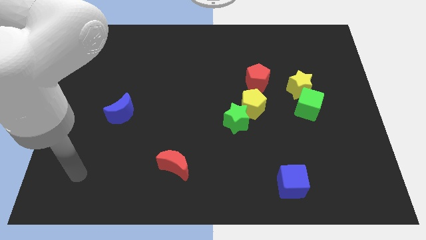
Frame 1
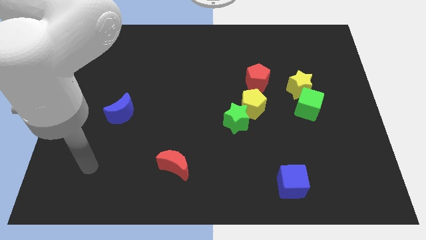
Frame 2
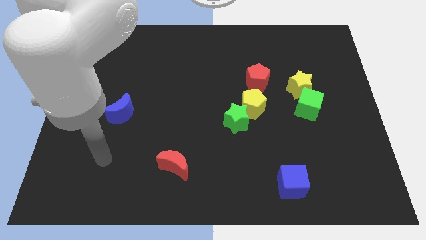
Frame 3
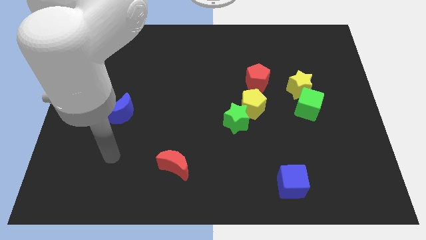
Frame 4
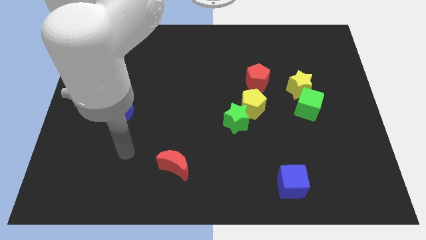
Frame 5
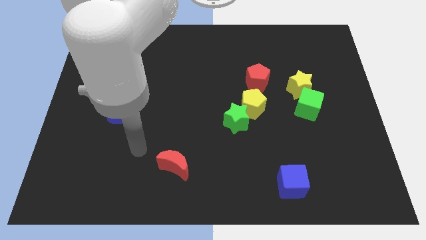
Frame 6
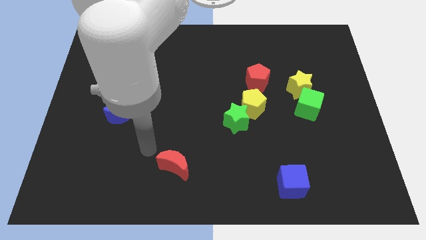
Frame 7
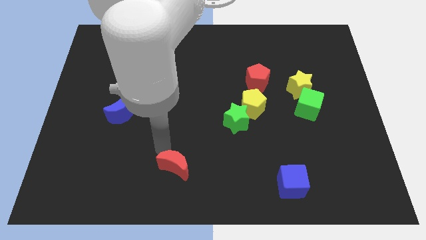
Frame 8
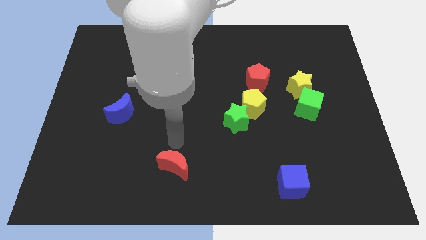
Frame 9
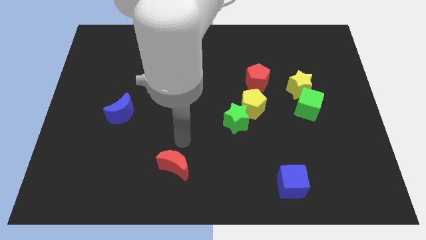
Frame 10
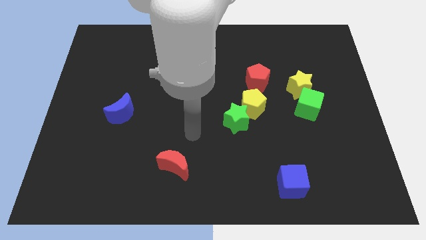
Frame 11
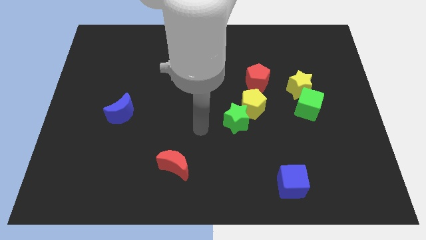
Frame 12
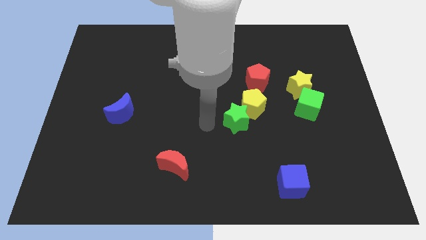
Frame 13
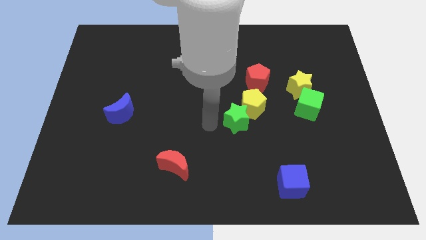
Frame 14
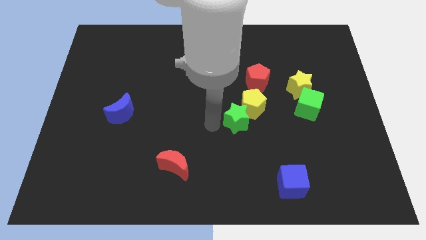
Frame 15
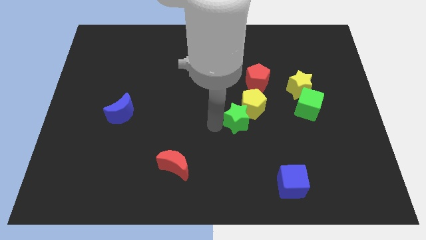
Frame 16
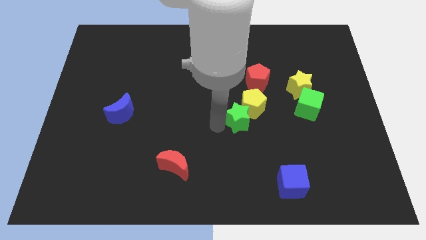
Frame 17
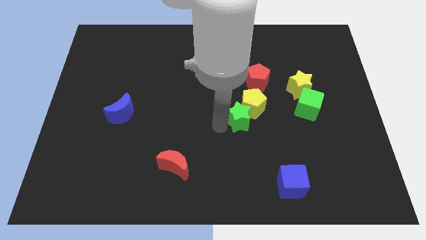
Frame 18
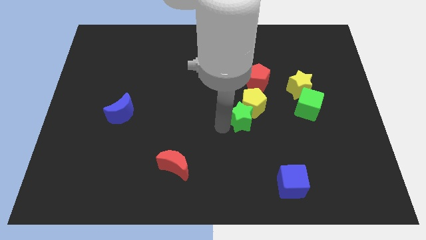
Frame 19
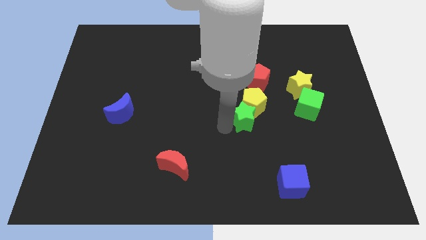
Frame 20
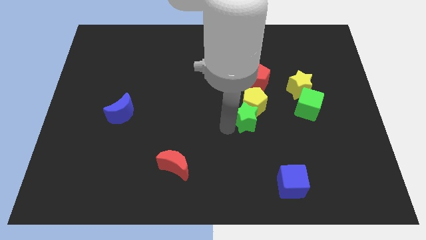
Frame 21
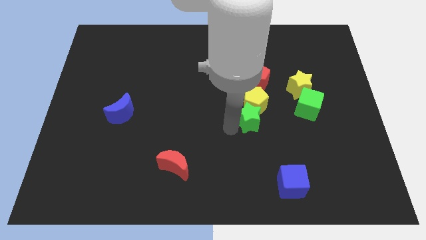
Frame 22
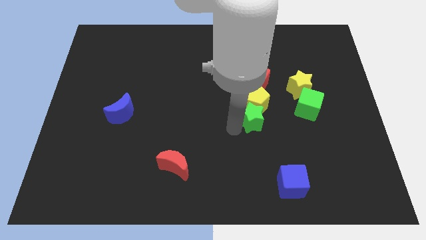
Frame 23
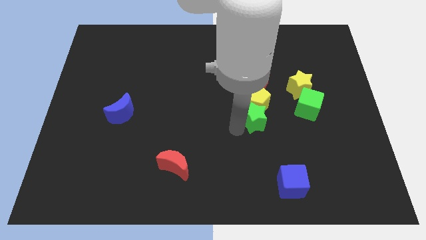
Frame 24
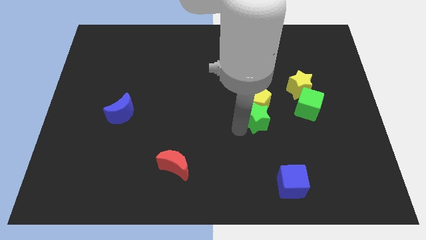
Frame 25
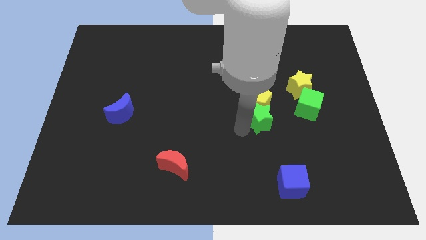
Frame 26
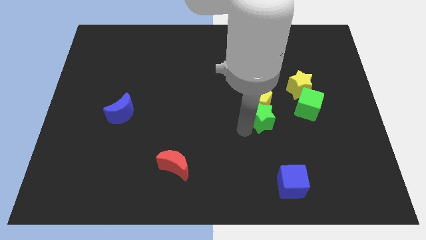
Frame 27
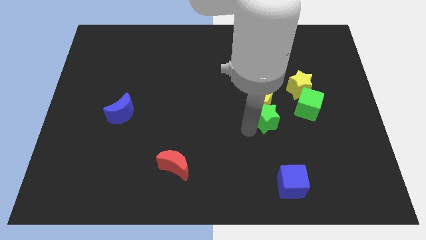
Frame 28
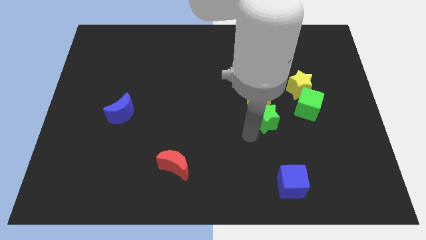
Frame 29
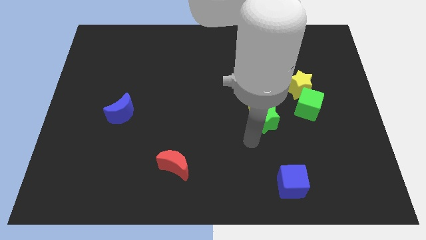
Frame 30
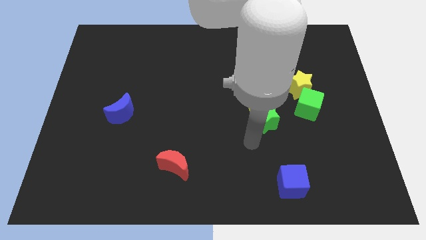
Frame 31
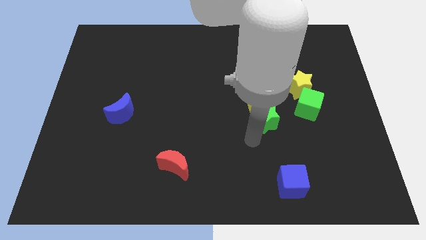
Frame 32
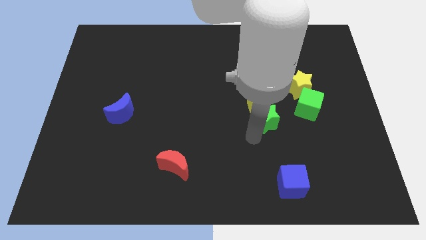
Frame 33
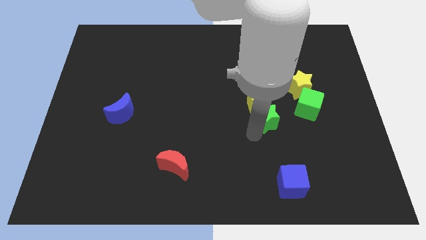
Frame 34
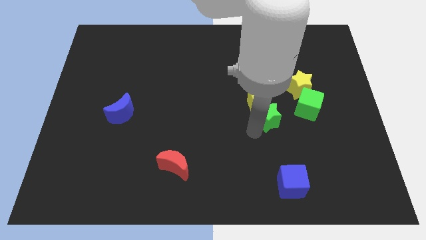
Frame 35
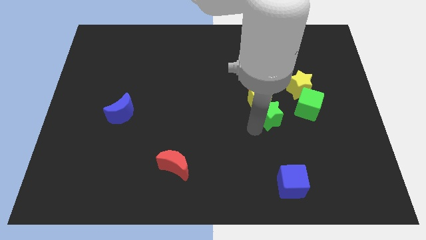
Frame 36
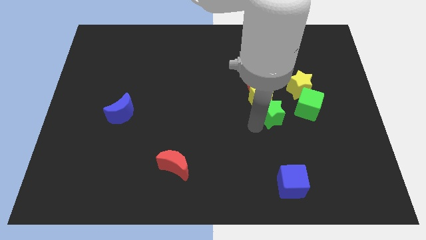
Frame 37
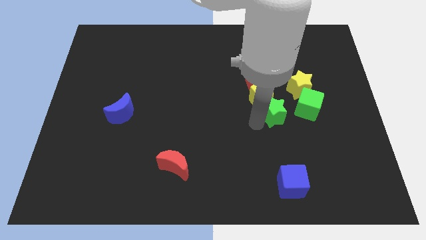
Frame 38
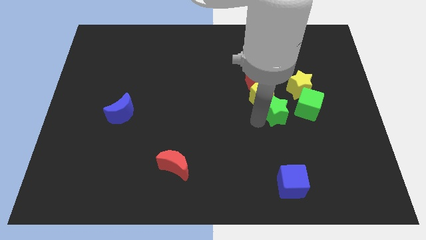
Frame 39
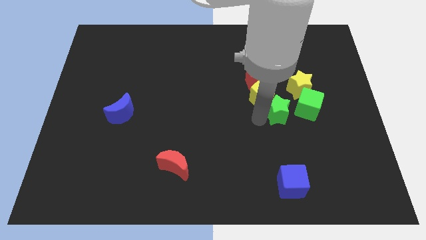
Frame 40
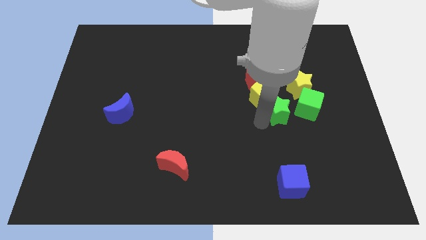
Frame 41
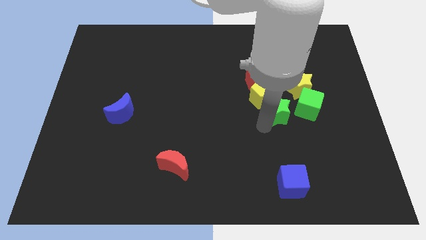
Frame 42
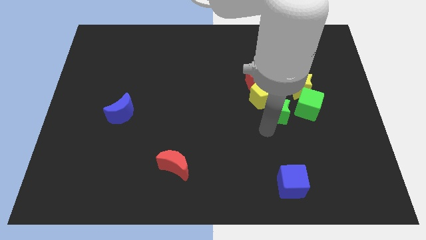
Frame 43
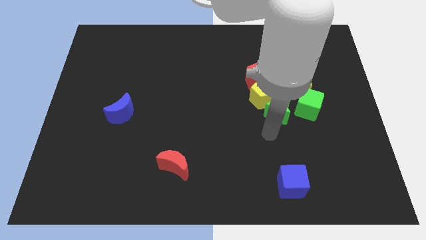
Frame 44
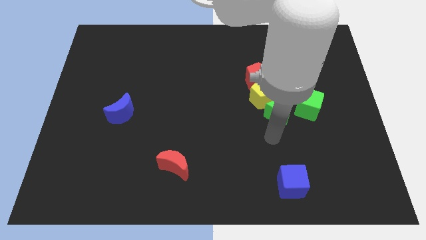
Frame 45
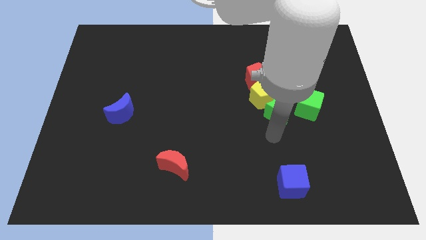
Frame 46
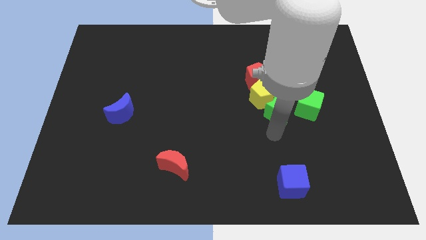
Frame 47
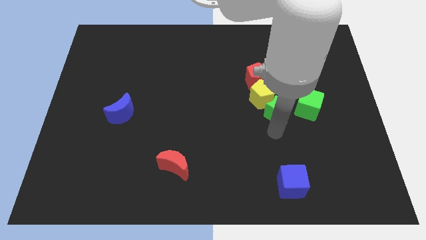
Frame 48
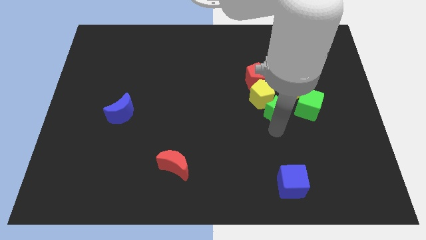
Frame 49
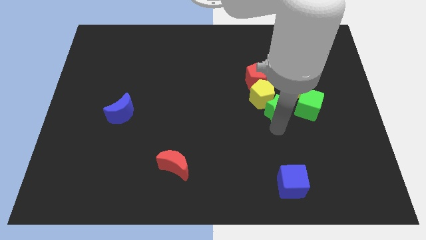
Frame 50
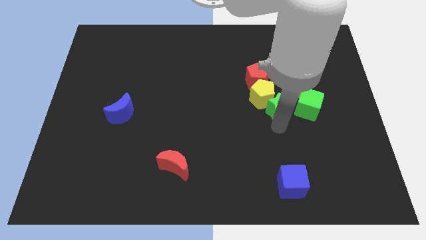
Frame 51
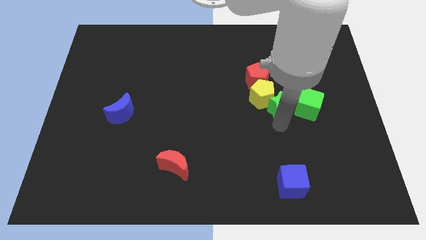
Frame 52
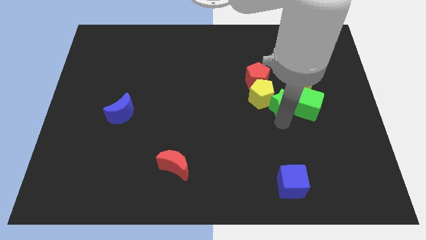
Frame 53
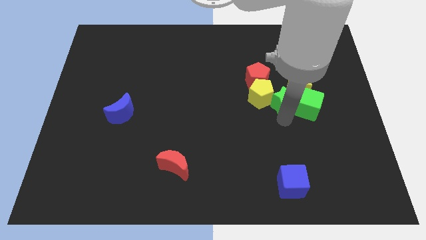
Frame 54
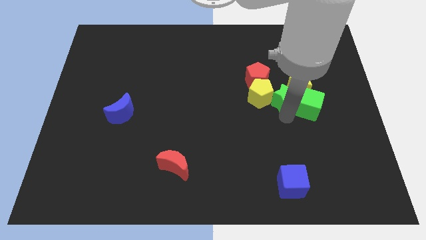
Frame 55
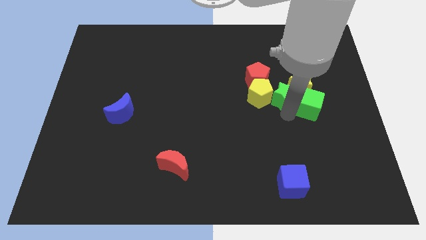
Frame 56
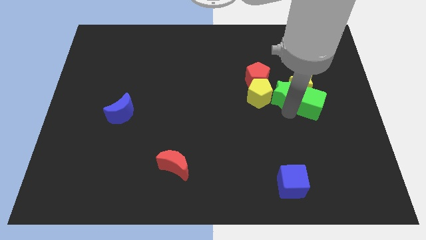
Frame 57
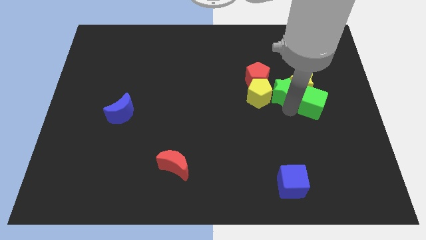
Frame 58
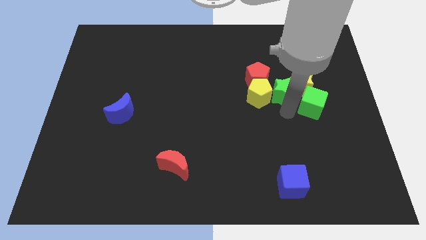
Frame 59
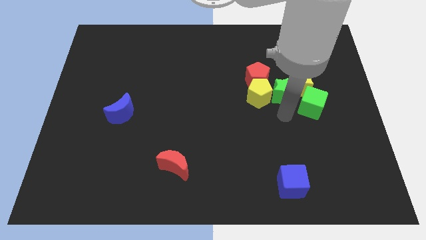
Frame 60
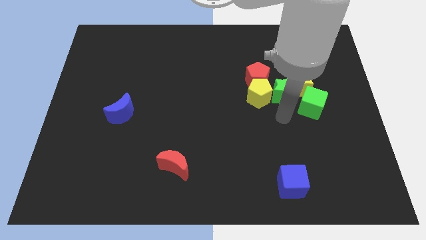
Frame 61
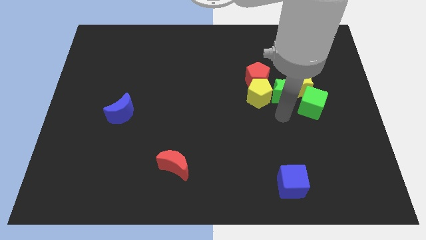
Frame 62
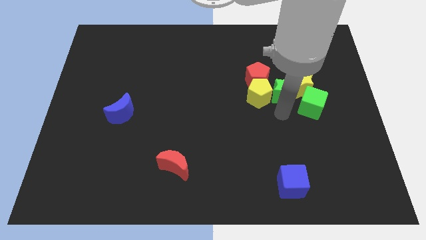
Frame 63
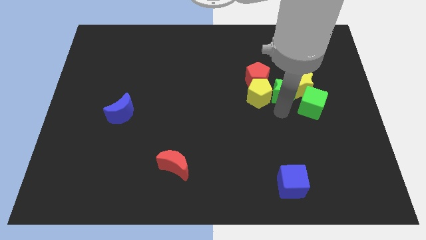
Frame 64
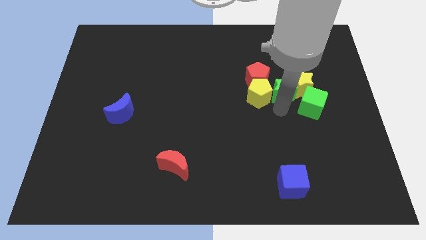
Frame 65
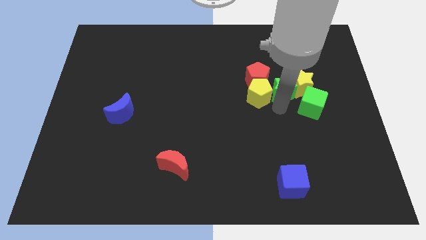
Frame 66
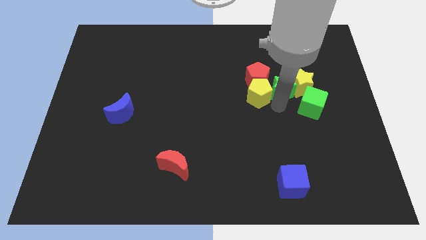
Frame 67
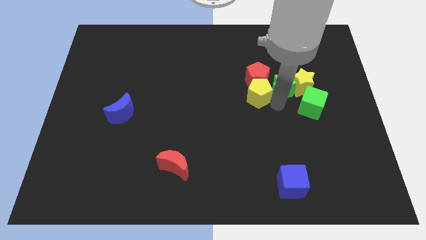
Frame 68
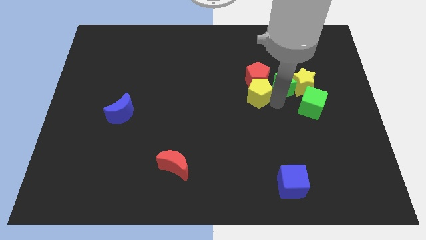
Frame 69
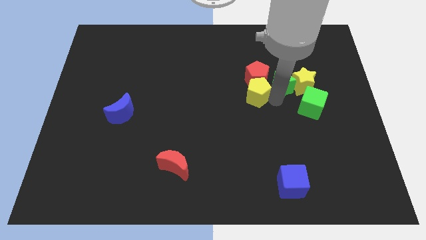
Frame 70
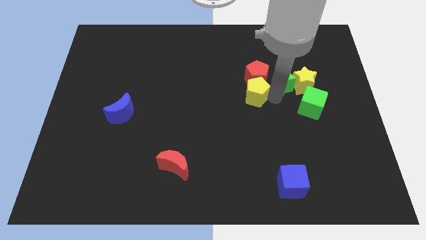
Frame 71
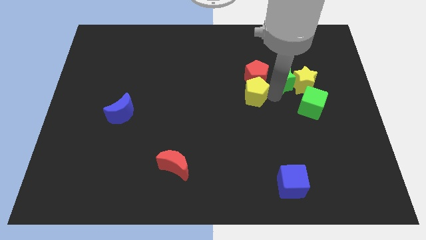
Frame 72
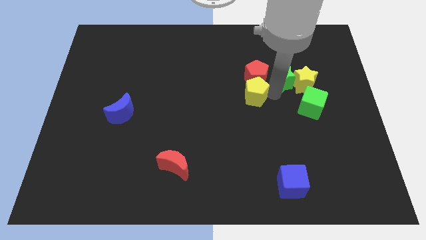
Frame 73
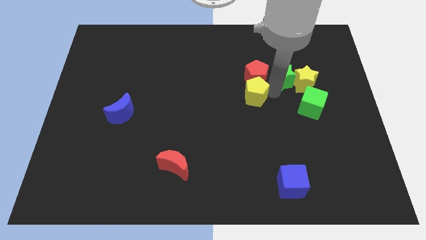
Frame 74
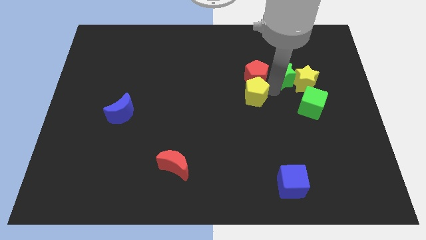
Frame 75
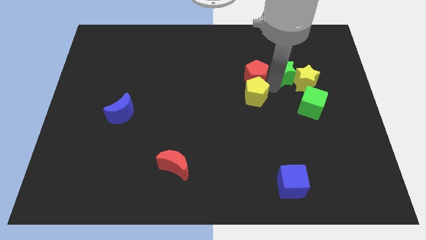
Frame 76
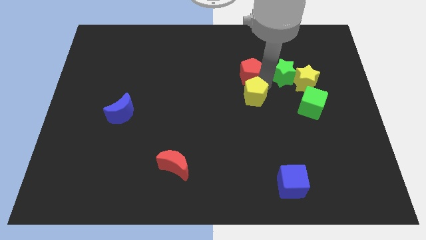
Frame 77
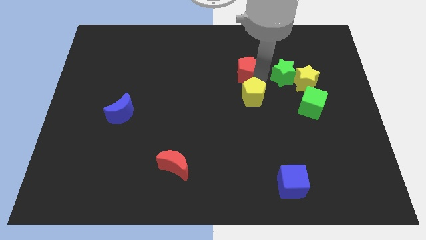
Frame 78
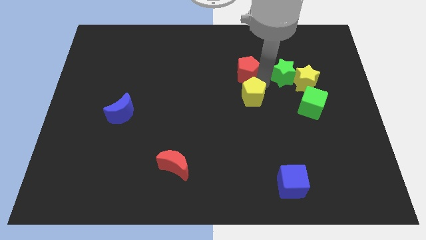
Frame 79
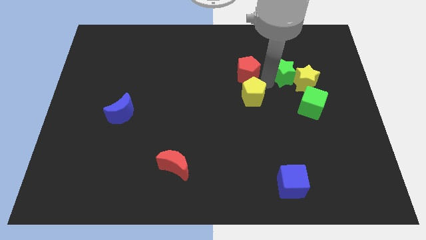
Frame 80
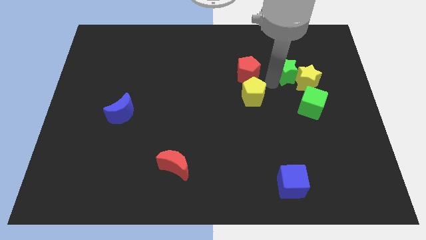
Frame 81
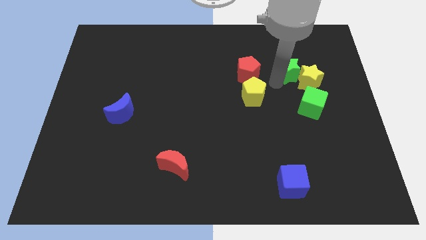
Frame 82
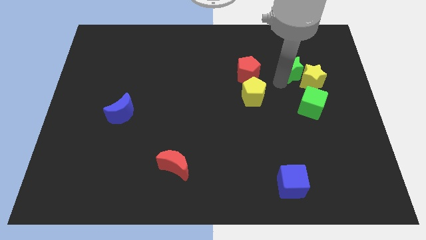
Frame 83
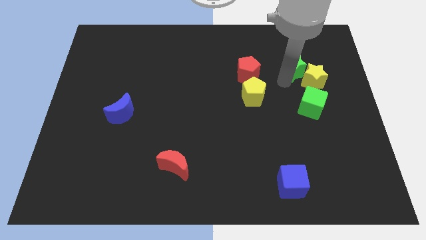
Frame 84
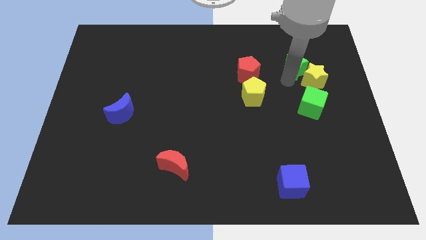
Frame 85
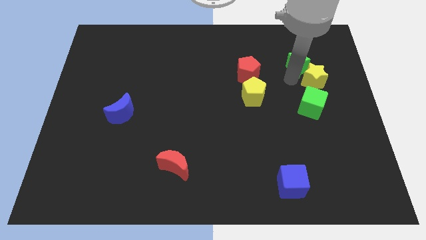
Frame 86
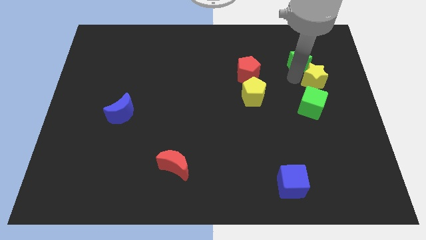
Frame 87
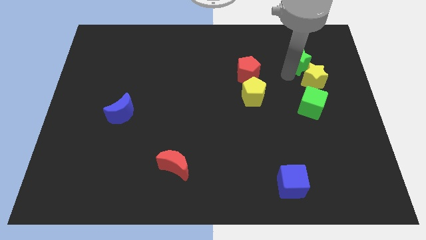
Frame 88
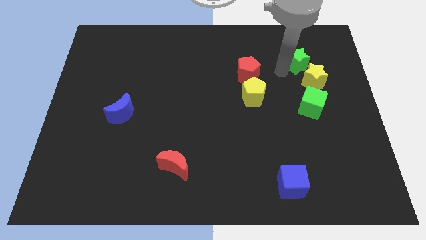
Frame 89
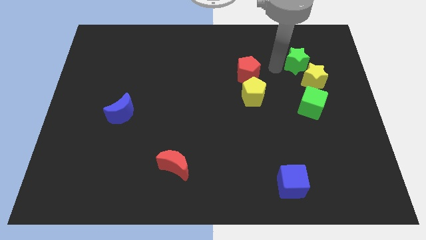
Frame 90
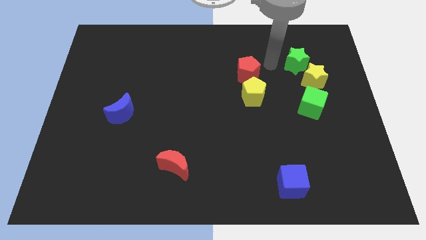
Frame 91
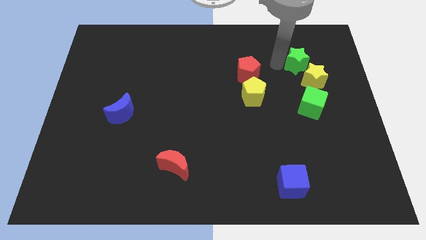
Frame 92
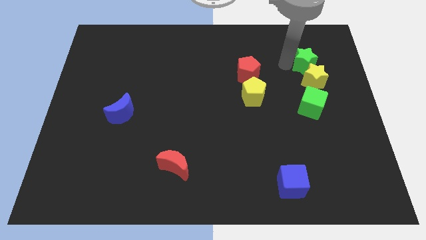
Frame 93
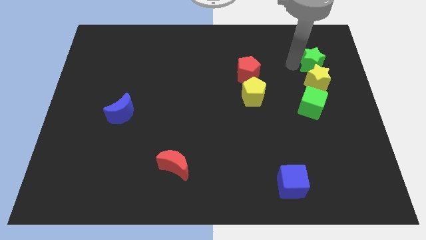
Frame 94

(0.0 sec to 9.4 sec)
move the green star to the top right of the yellow star
